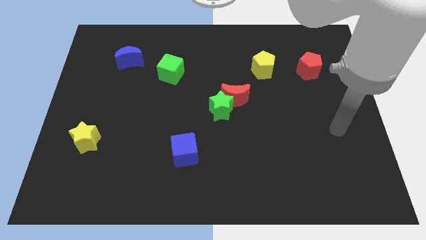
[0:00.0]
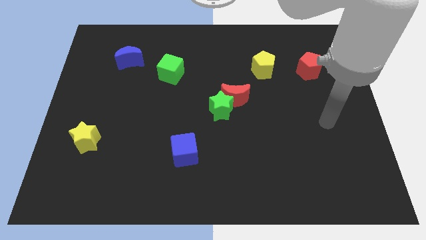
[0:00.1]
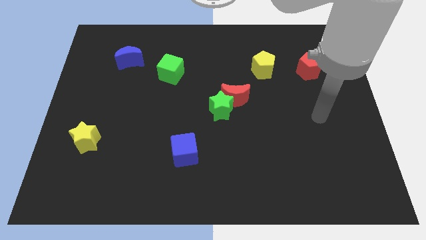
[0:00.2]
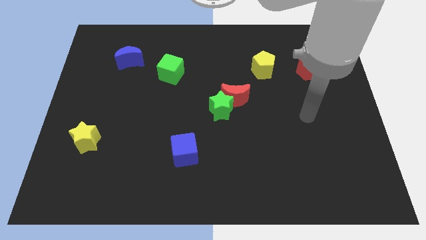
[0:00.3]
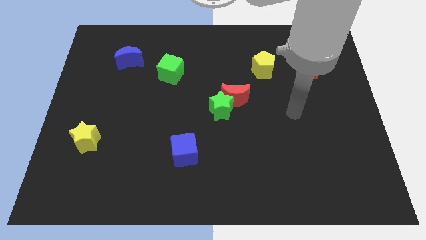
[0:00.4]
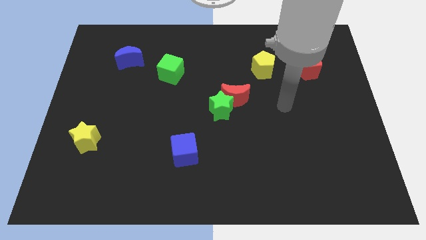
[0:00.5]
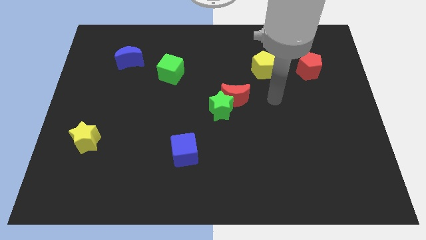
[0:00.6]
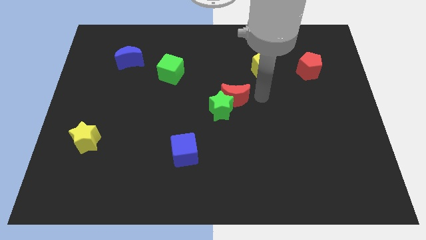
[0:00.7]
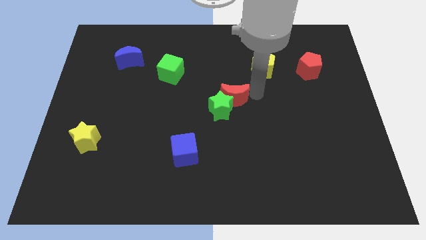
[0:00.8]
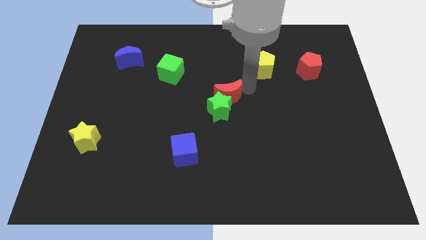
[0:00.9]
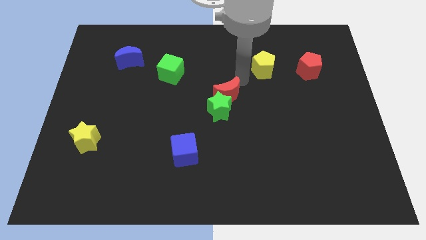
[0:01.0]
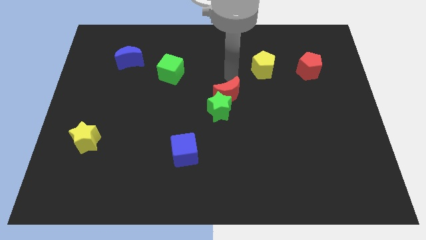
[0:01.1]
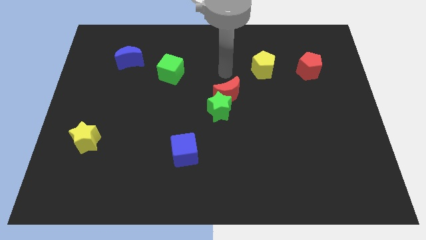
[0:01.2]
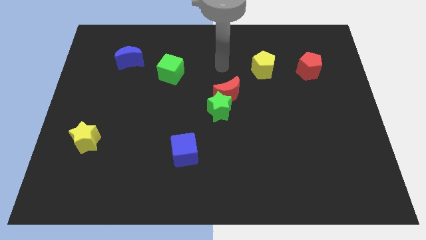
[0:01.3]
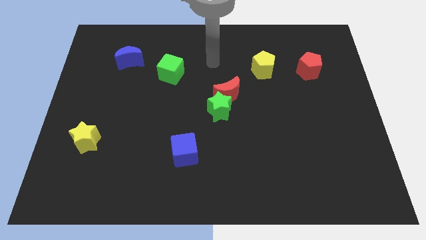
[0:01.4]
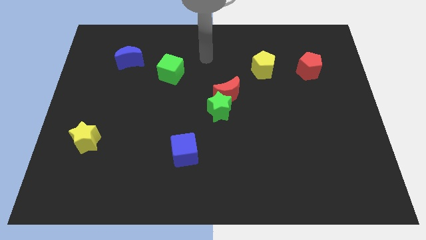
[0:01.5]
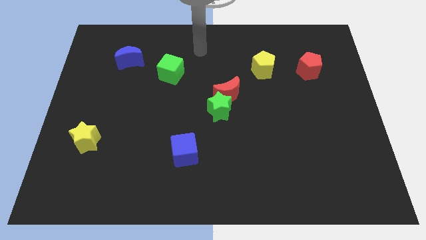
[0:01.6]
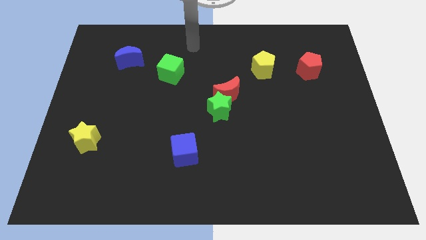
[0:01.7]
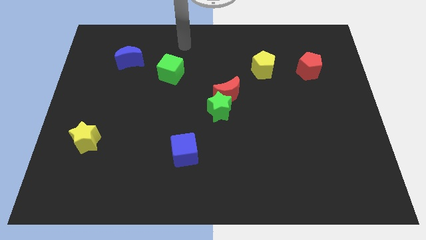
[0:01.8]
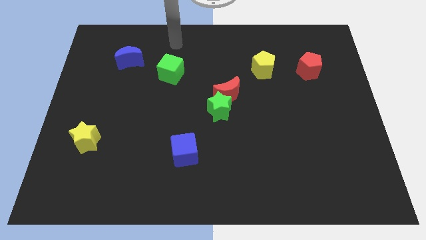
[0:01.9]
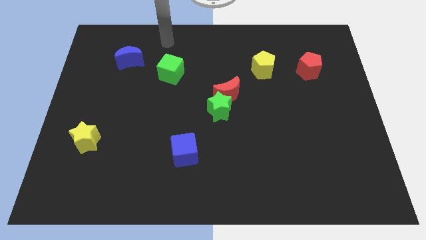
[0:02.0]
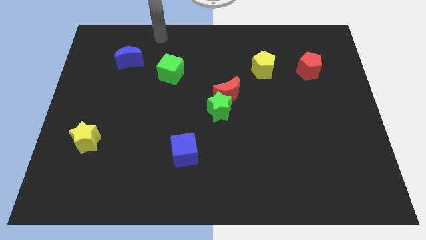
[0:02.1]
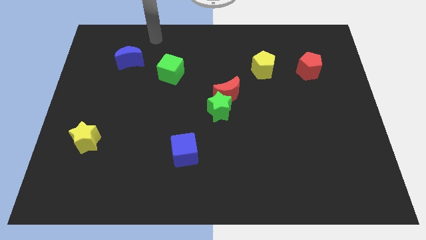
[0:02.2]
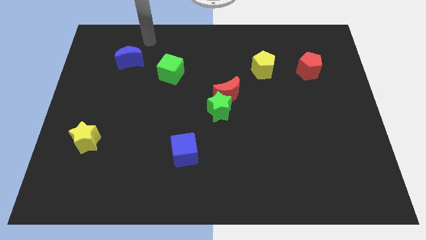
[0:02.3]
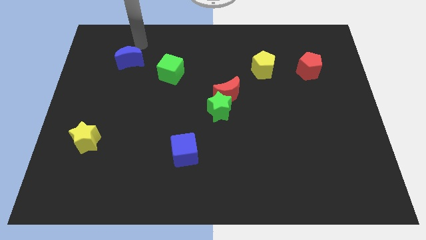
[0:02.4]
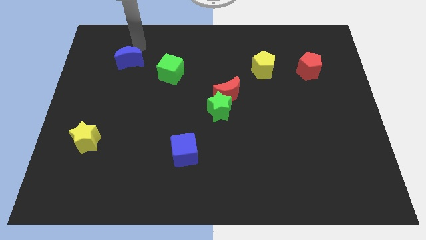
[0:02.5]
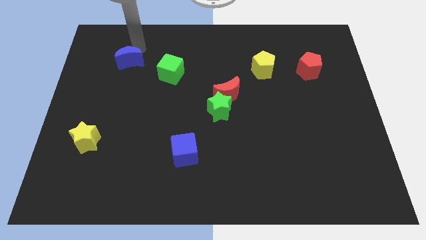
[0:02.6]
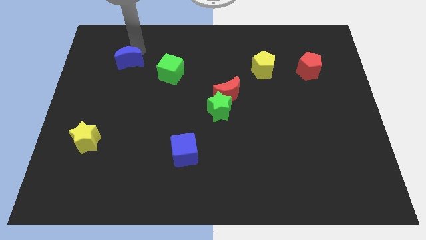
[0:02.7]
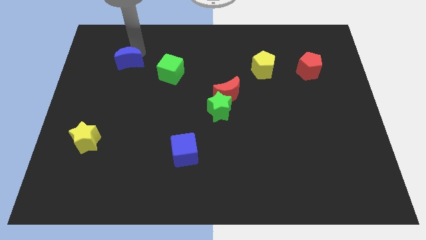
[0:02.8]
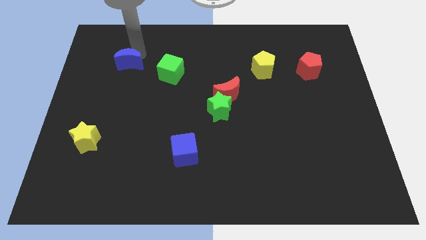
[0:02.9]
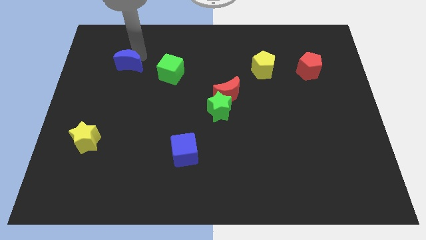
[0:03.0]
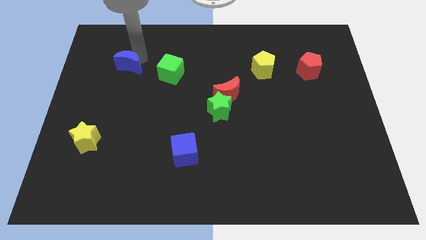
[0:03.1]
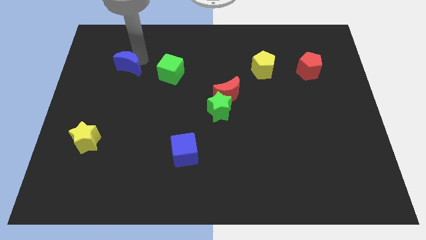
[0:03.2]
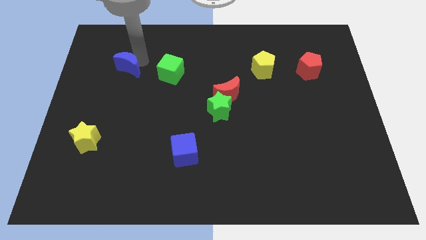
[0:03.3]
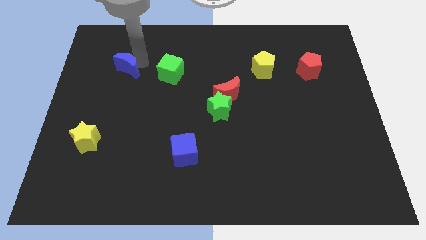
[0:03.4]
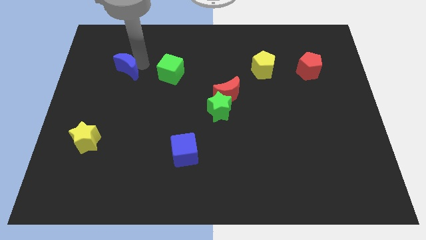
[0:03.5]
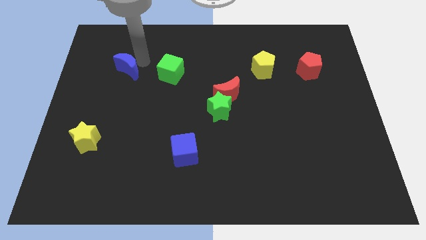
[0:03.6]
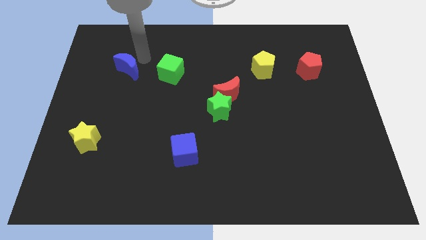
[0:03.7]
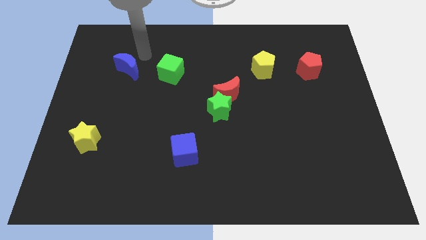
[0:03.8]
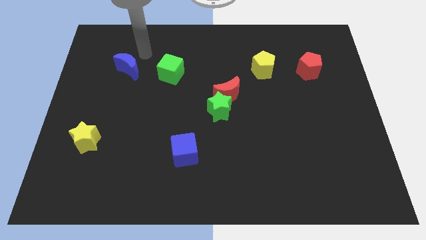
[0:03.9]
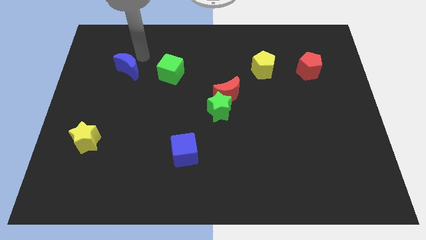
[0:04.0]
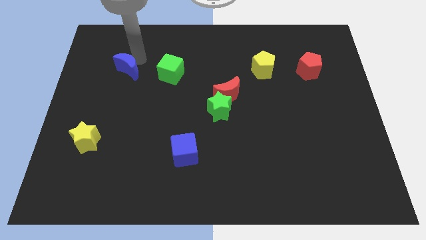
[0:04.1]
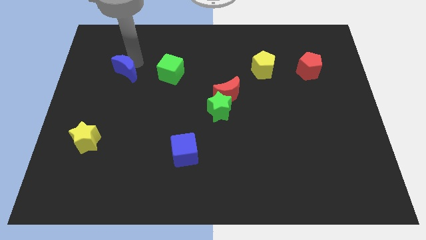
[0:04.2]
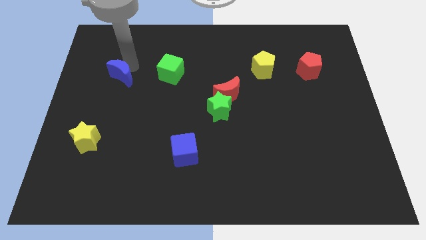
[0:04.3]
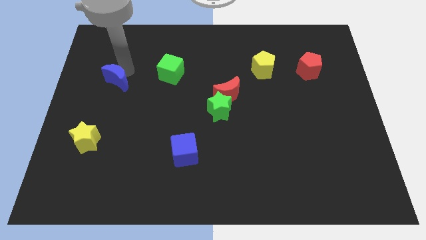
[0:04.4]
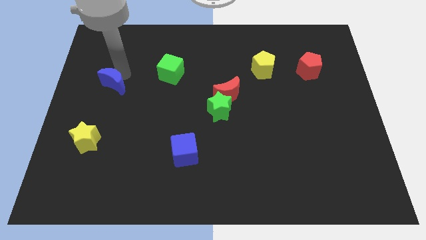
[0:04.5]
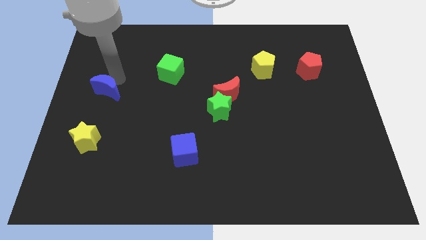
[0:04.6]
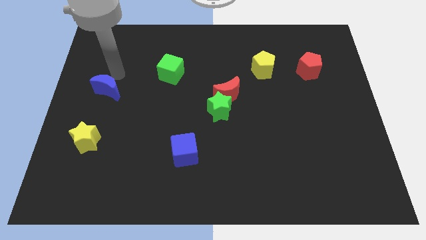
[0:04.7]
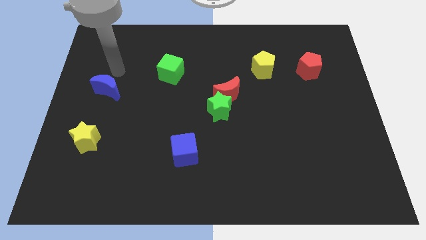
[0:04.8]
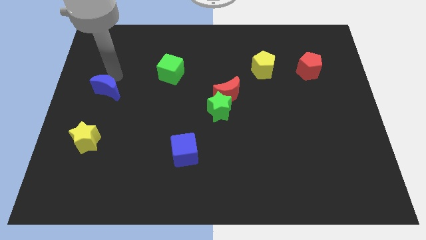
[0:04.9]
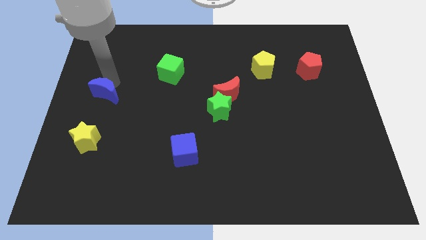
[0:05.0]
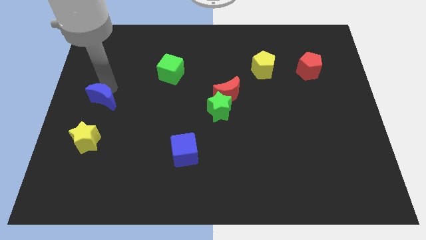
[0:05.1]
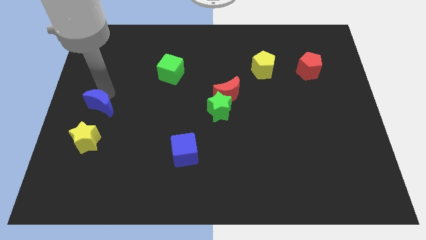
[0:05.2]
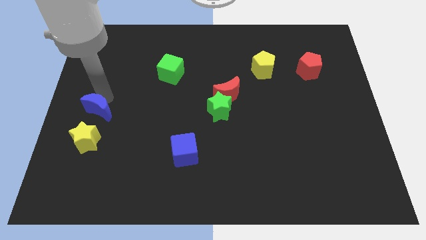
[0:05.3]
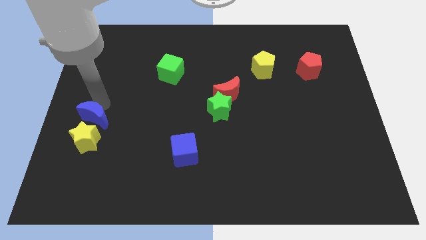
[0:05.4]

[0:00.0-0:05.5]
put the blue moon to the yellow star

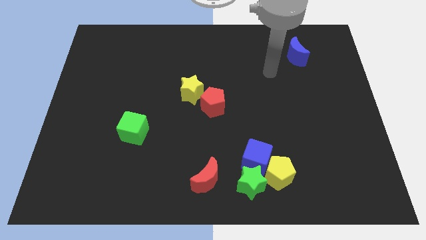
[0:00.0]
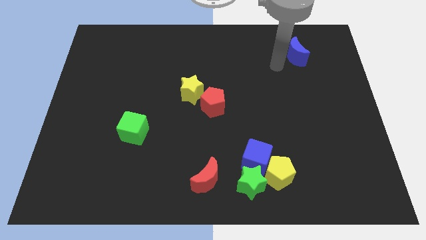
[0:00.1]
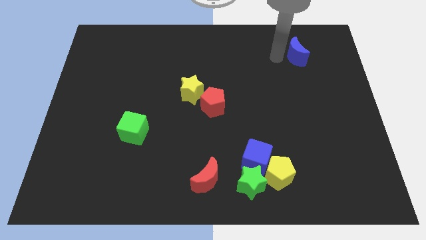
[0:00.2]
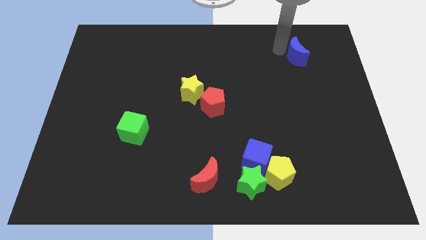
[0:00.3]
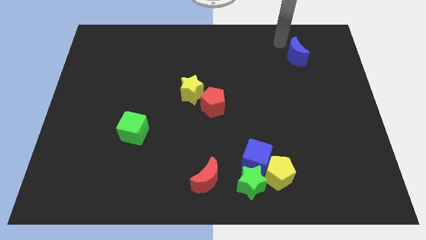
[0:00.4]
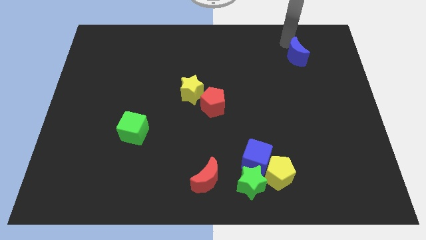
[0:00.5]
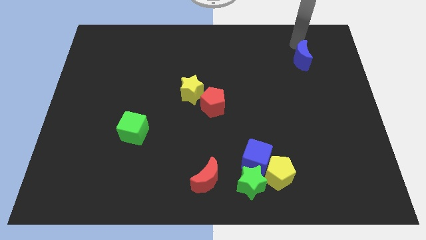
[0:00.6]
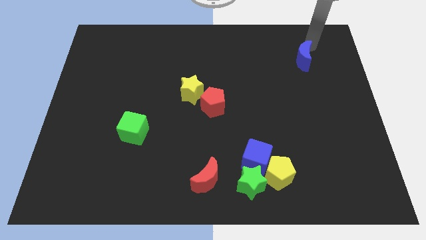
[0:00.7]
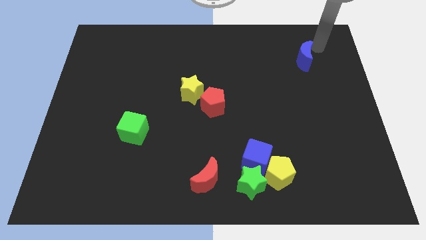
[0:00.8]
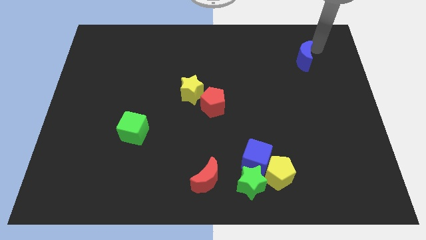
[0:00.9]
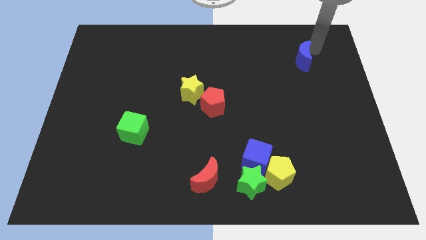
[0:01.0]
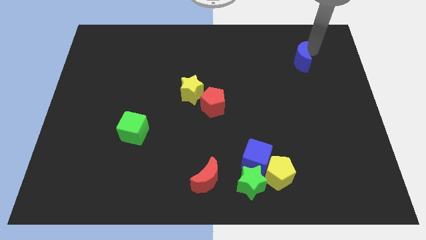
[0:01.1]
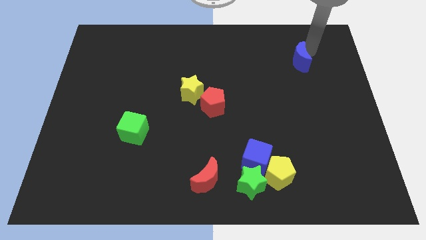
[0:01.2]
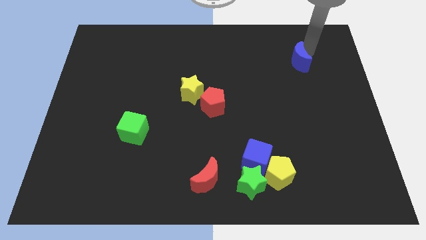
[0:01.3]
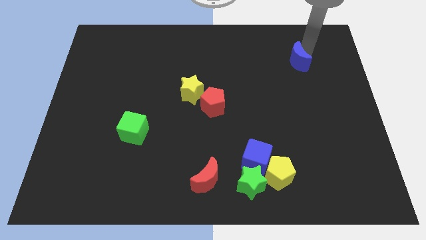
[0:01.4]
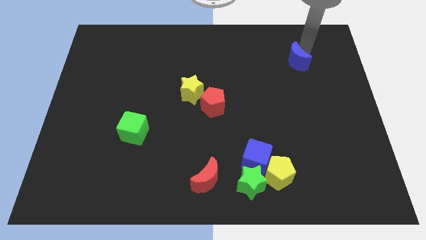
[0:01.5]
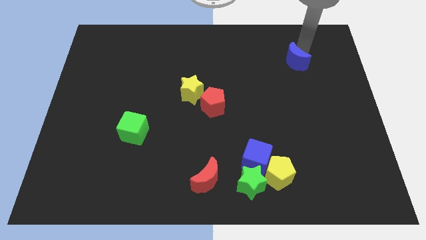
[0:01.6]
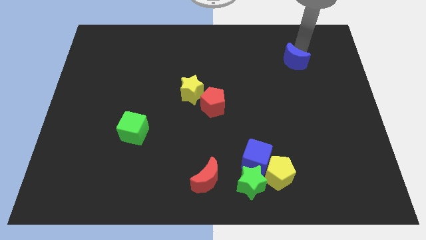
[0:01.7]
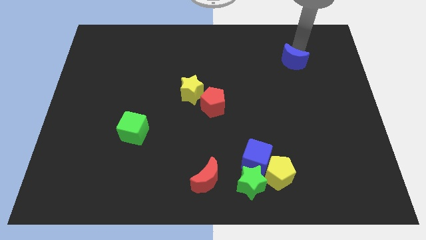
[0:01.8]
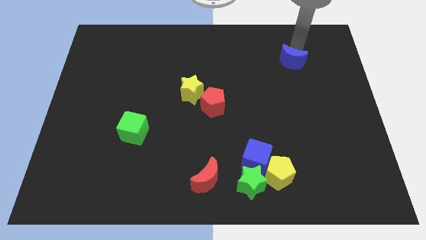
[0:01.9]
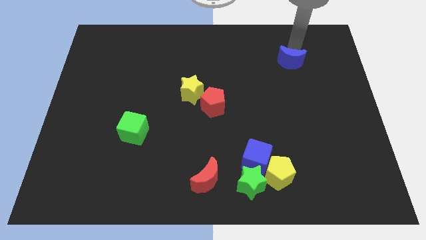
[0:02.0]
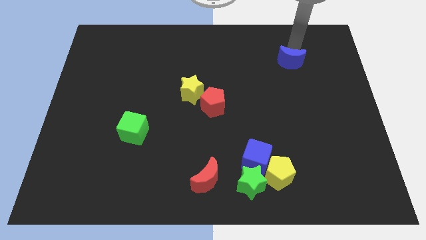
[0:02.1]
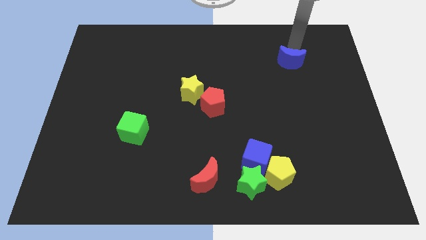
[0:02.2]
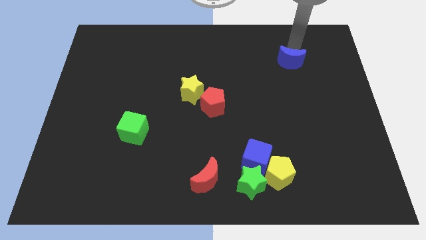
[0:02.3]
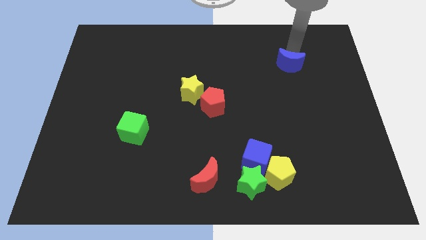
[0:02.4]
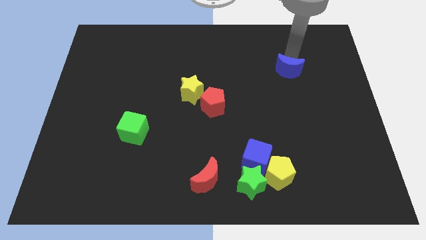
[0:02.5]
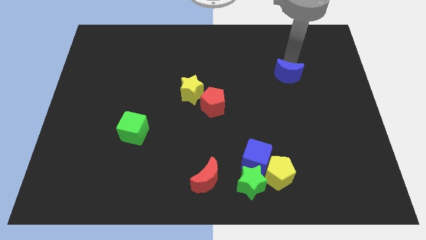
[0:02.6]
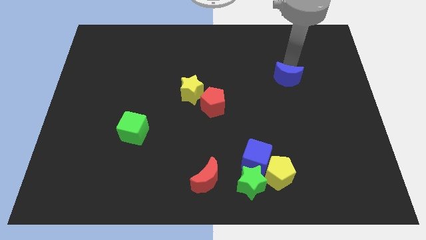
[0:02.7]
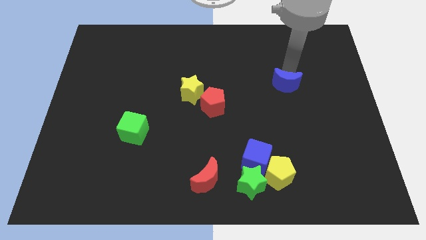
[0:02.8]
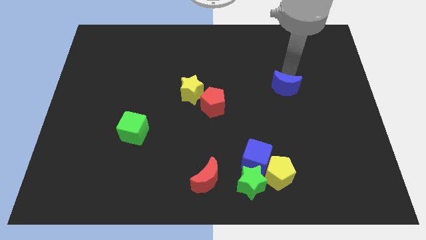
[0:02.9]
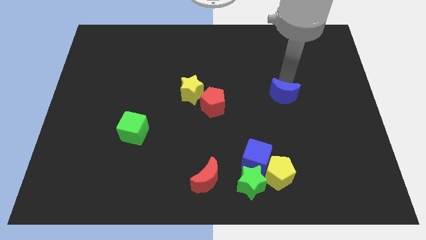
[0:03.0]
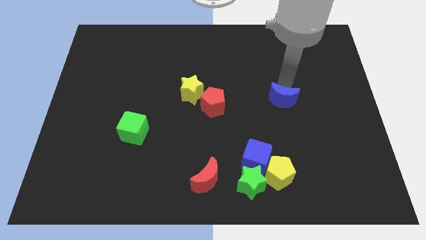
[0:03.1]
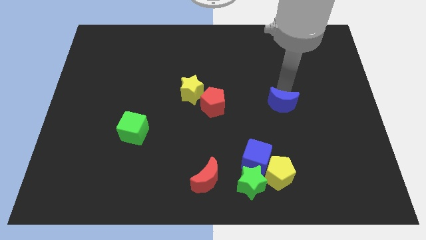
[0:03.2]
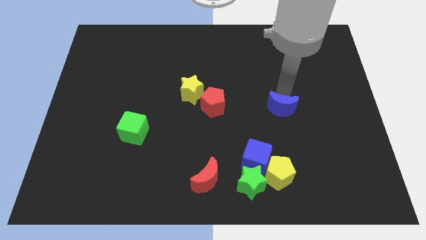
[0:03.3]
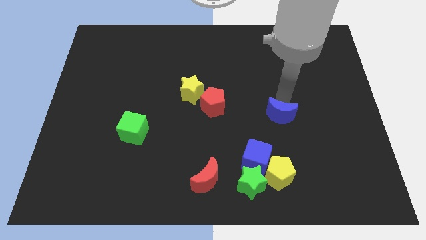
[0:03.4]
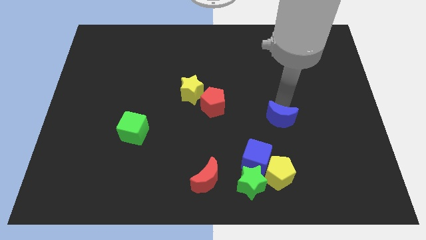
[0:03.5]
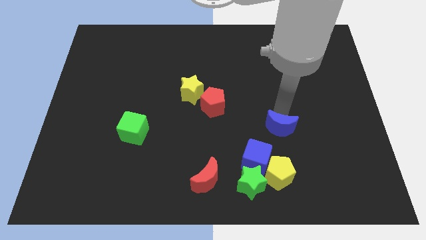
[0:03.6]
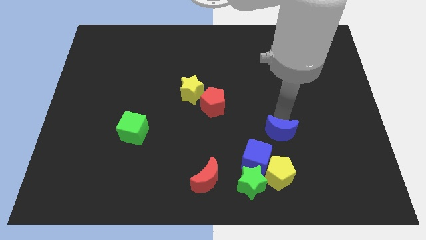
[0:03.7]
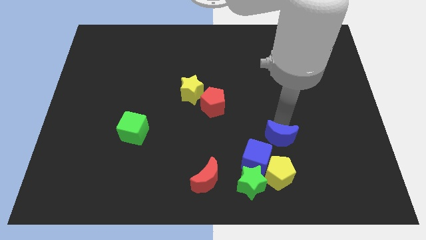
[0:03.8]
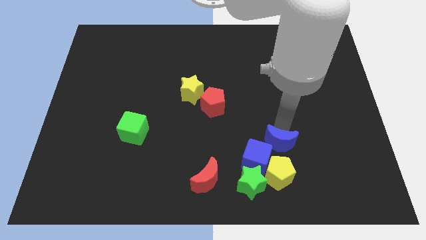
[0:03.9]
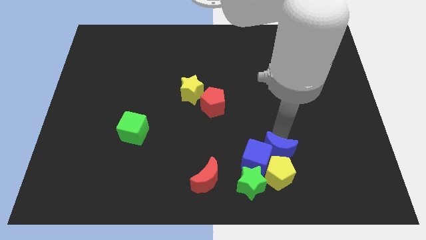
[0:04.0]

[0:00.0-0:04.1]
slide the blue moon close to the yellow pentagon
